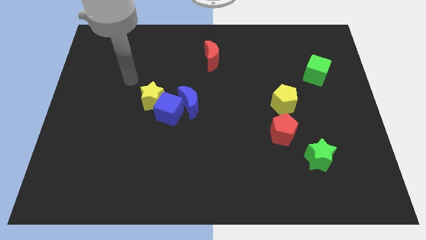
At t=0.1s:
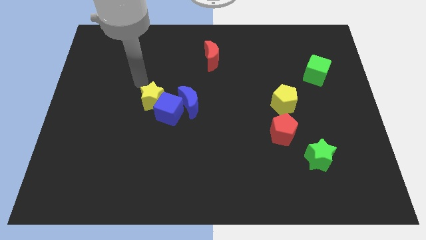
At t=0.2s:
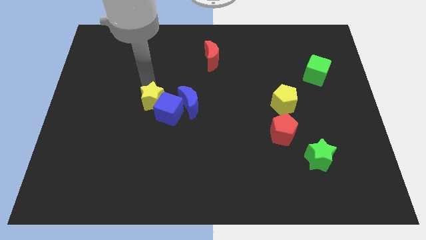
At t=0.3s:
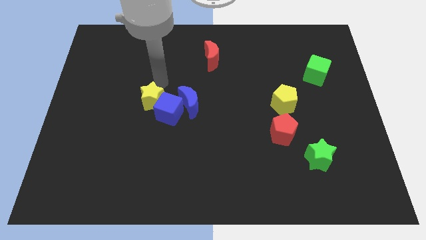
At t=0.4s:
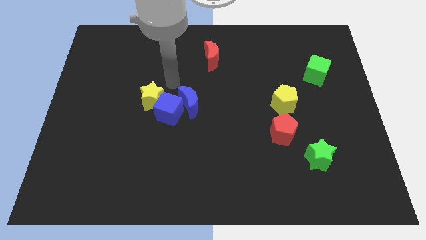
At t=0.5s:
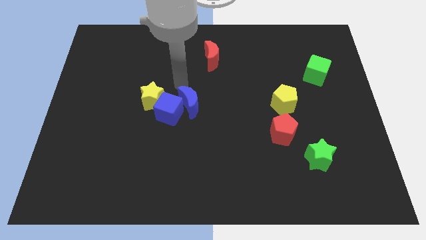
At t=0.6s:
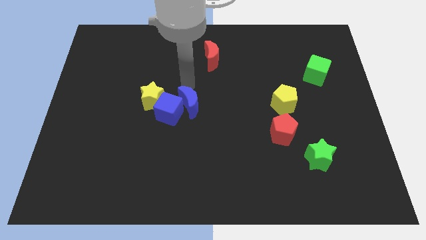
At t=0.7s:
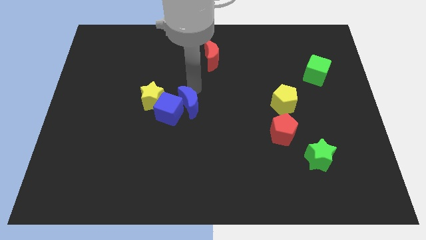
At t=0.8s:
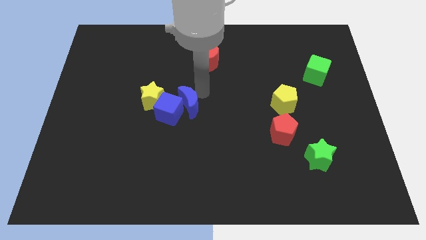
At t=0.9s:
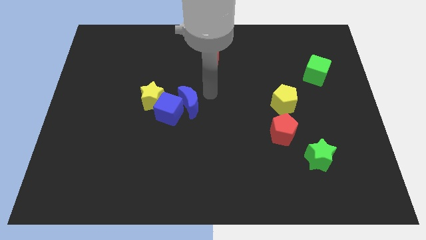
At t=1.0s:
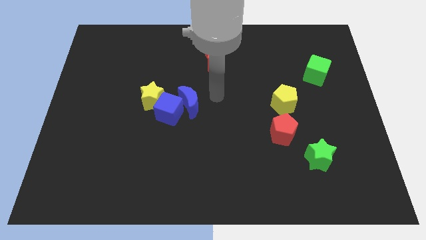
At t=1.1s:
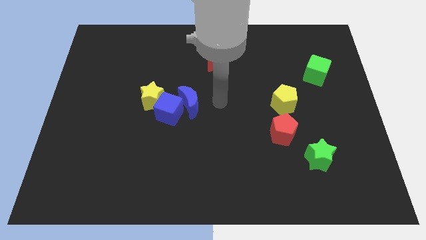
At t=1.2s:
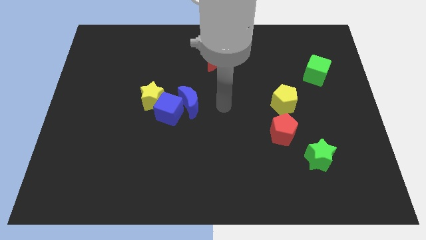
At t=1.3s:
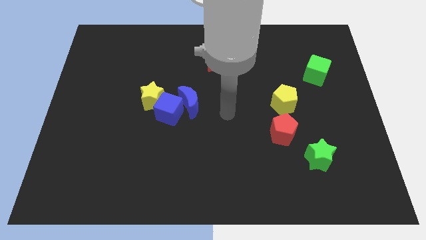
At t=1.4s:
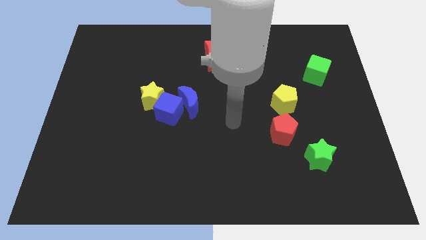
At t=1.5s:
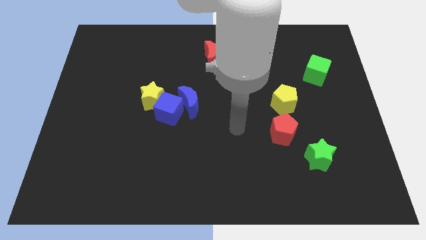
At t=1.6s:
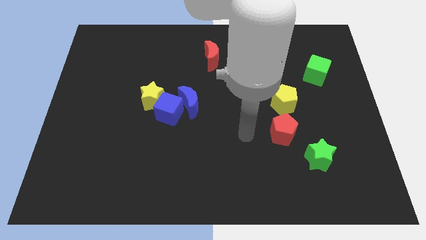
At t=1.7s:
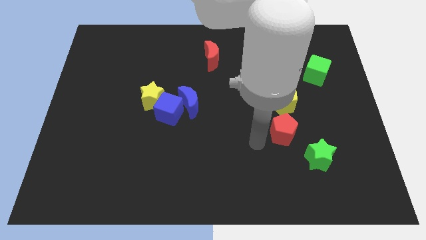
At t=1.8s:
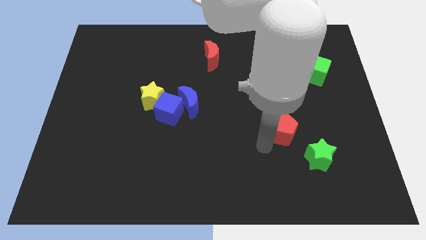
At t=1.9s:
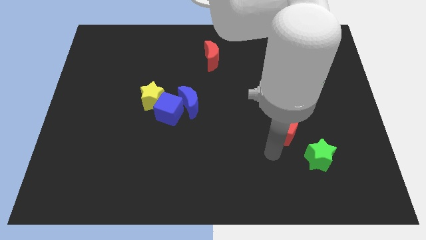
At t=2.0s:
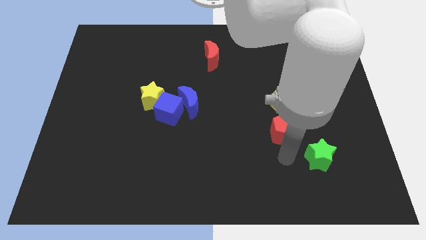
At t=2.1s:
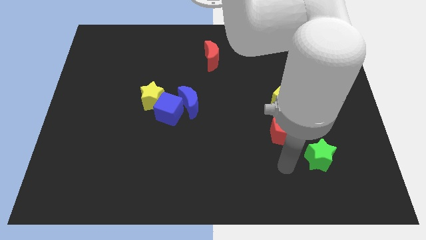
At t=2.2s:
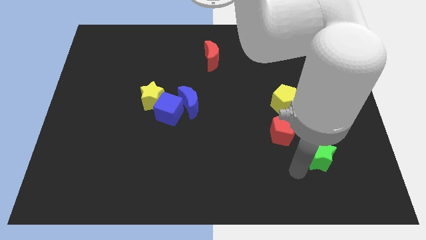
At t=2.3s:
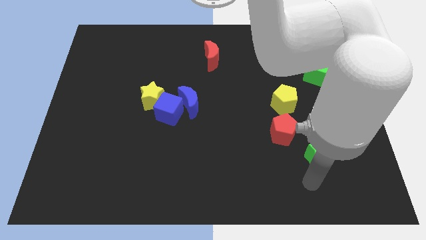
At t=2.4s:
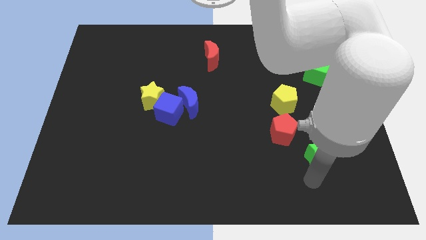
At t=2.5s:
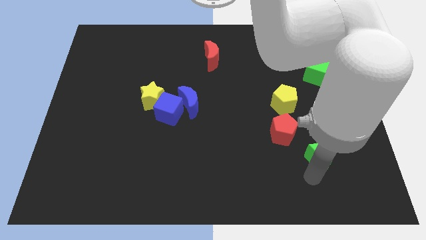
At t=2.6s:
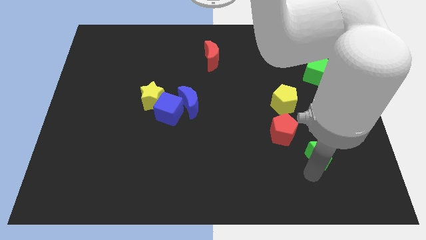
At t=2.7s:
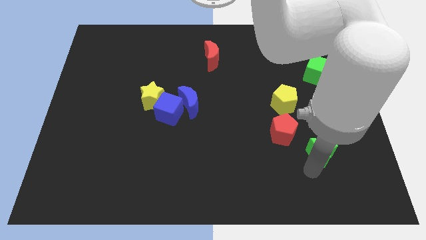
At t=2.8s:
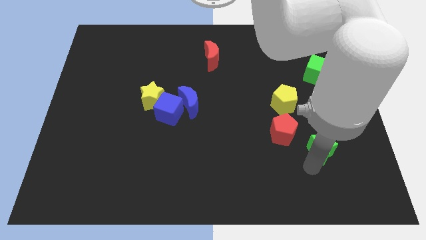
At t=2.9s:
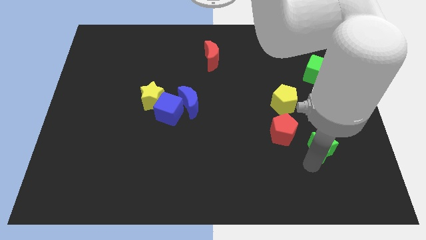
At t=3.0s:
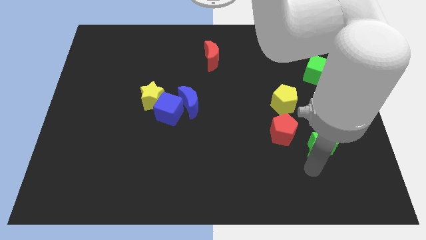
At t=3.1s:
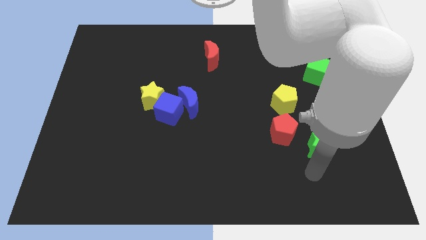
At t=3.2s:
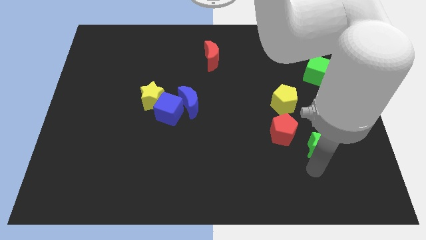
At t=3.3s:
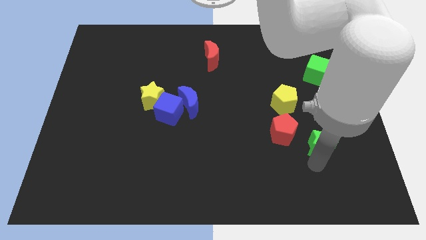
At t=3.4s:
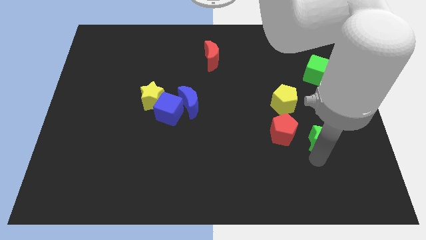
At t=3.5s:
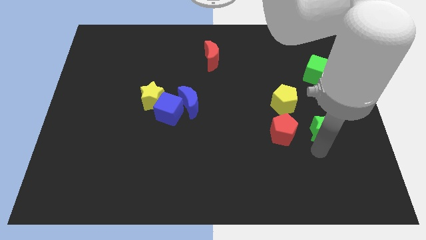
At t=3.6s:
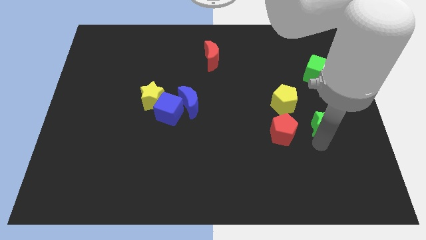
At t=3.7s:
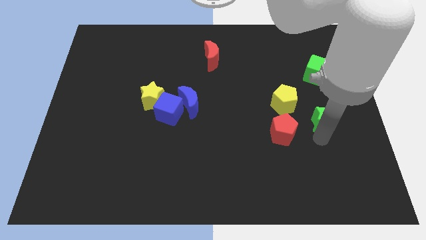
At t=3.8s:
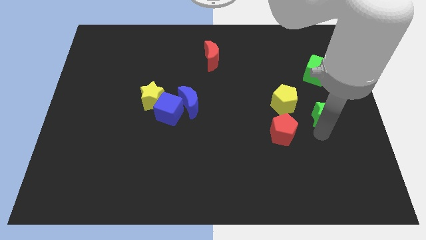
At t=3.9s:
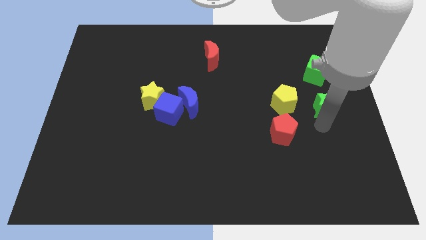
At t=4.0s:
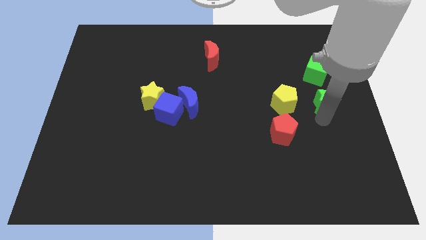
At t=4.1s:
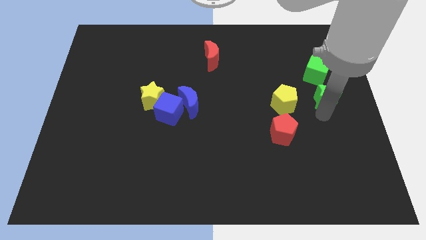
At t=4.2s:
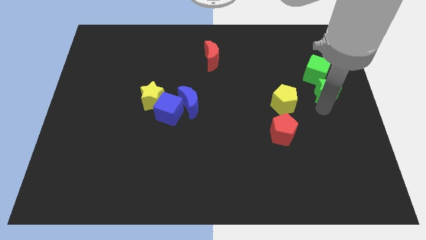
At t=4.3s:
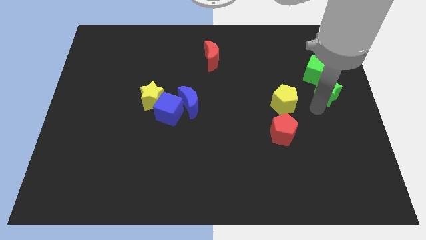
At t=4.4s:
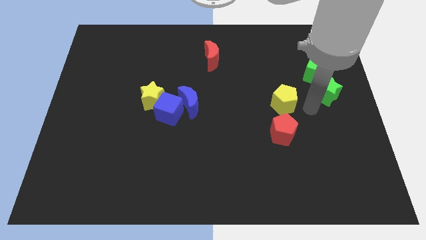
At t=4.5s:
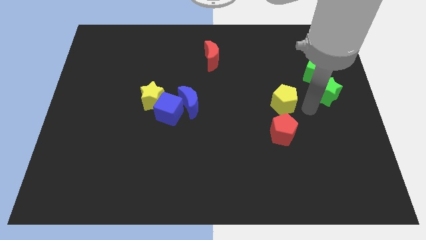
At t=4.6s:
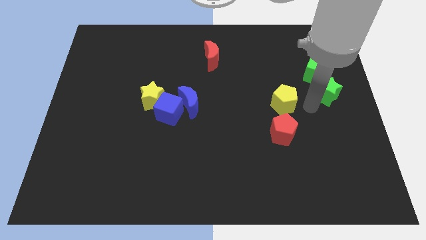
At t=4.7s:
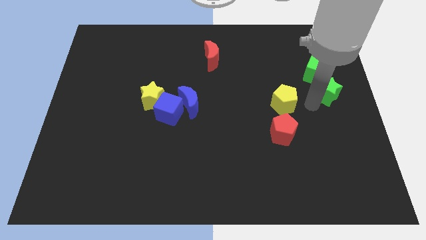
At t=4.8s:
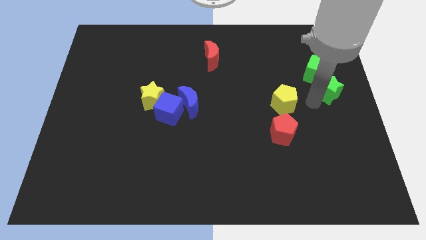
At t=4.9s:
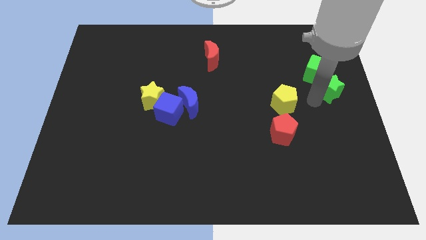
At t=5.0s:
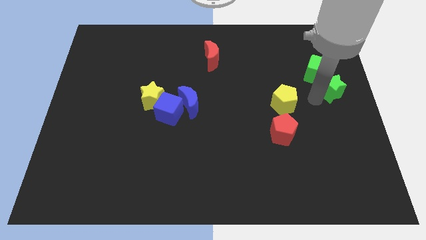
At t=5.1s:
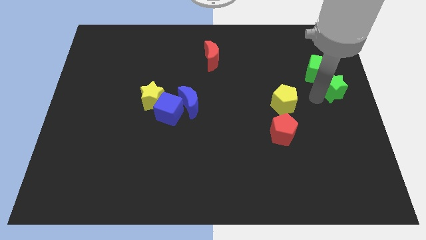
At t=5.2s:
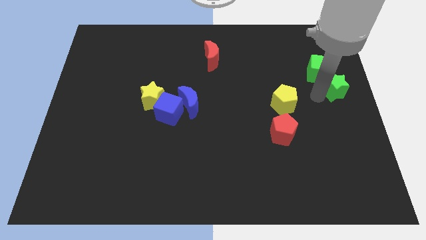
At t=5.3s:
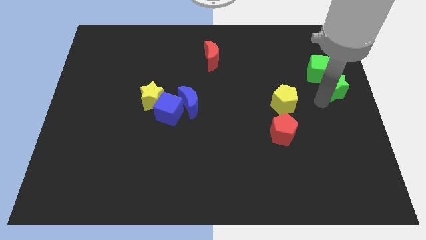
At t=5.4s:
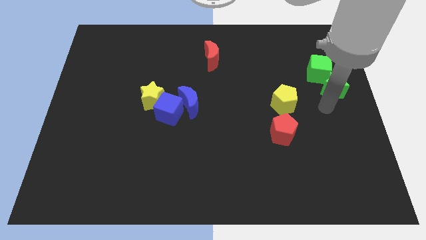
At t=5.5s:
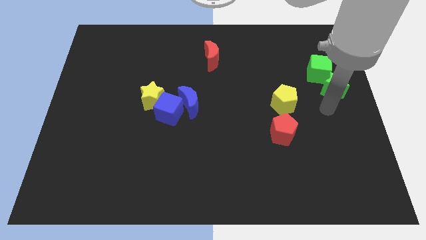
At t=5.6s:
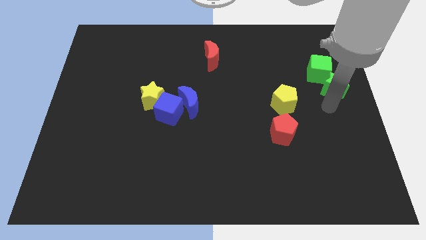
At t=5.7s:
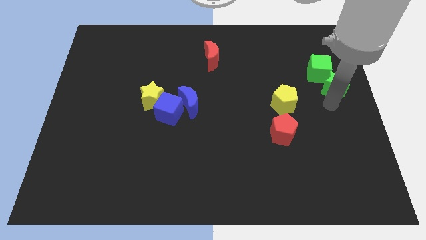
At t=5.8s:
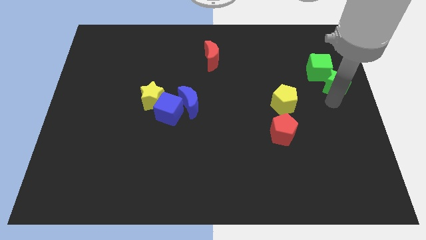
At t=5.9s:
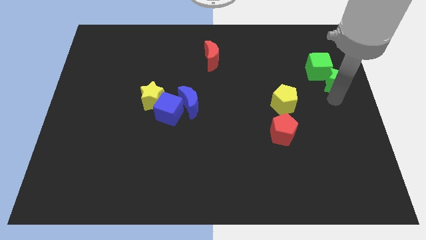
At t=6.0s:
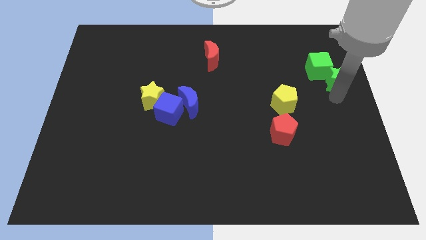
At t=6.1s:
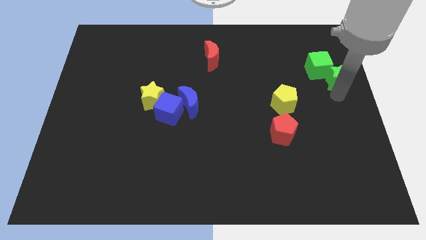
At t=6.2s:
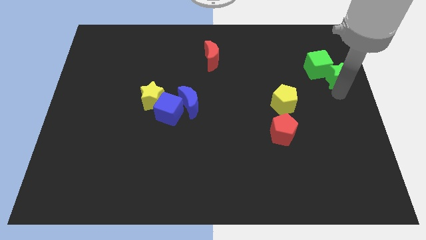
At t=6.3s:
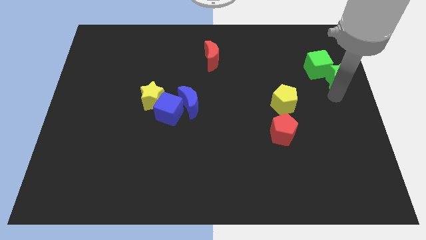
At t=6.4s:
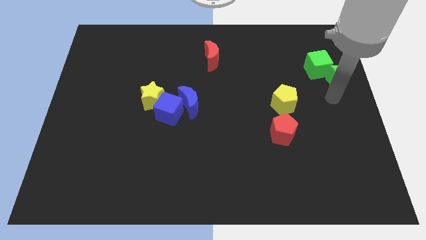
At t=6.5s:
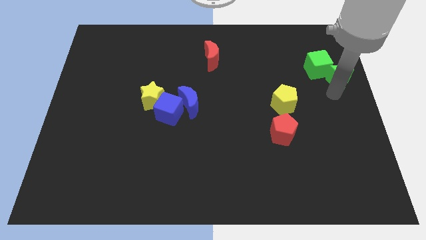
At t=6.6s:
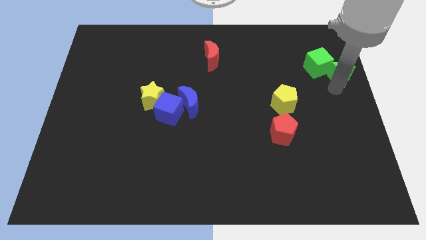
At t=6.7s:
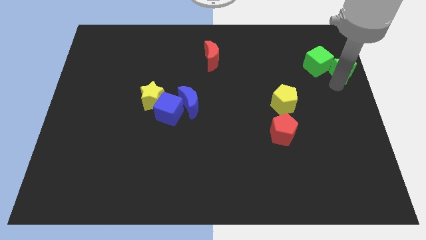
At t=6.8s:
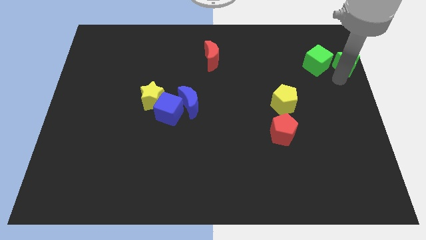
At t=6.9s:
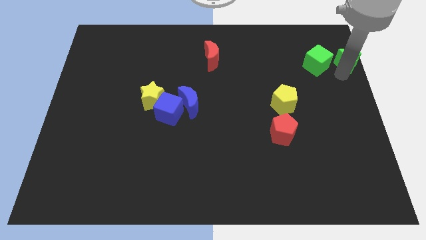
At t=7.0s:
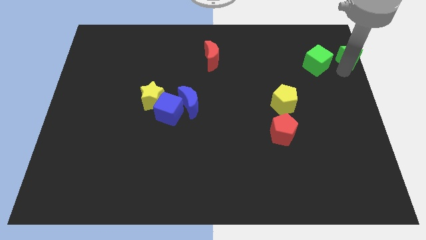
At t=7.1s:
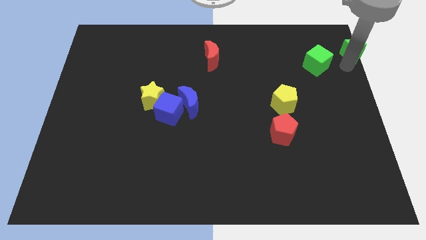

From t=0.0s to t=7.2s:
move the green star to the top right
